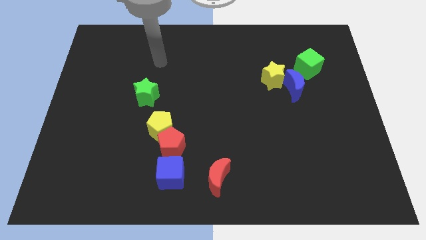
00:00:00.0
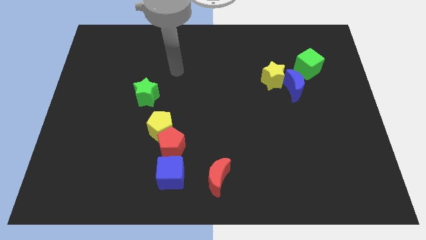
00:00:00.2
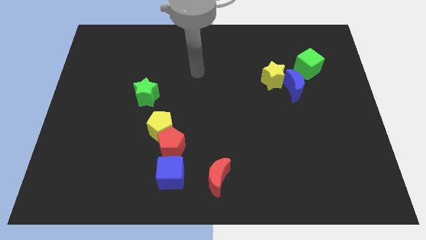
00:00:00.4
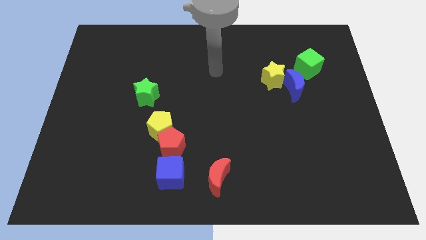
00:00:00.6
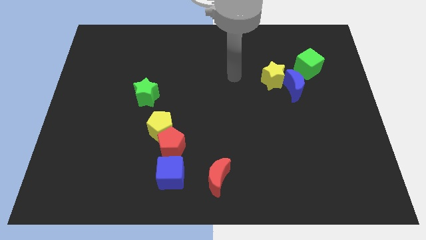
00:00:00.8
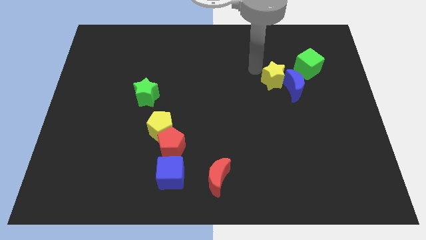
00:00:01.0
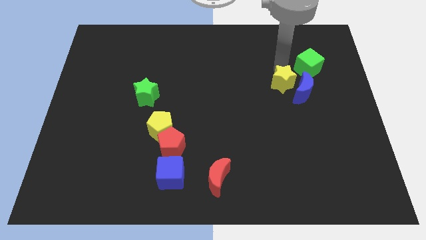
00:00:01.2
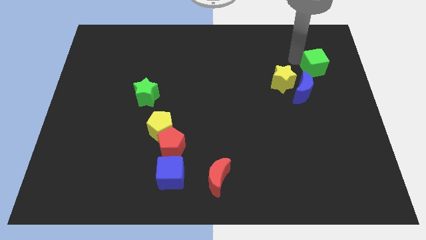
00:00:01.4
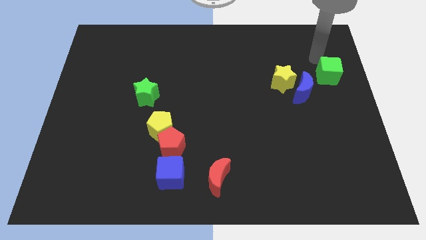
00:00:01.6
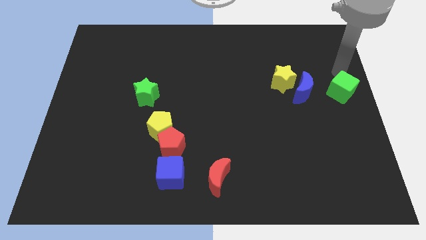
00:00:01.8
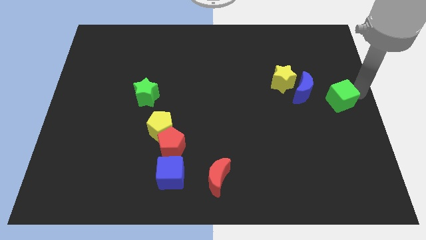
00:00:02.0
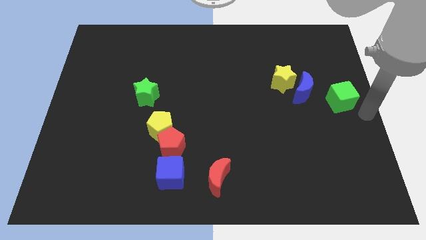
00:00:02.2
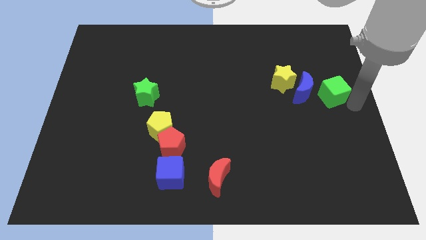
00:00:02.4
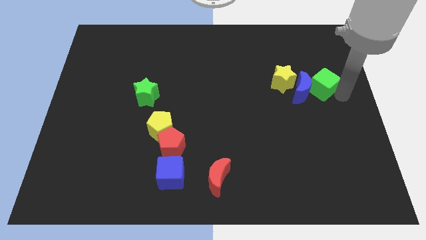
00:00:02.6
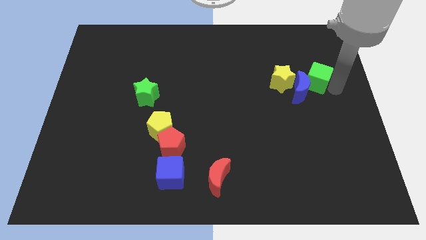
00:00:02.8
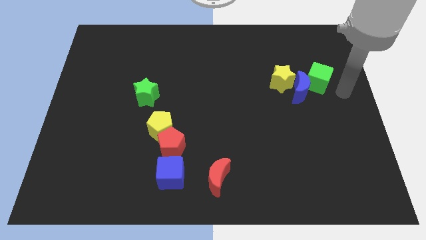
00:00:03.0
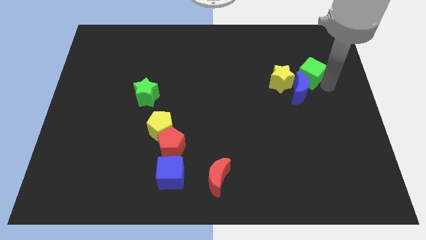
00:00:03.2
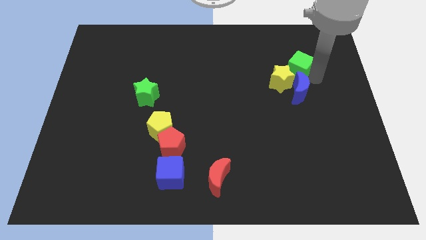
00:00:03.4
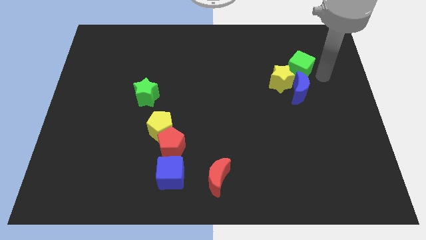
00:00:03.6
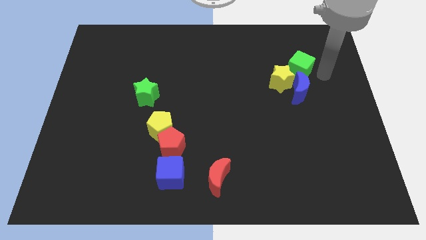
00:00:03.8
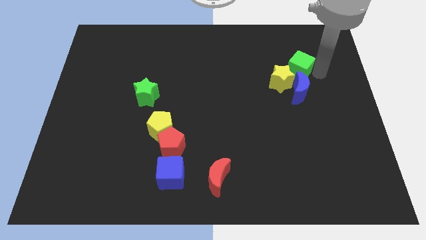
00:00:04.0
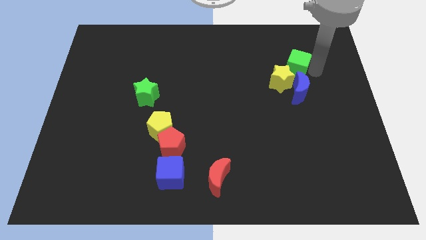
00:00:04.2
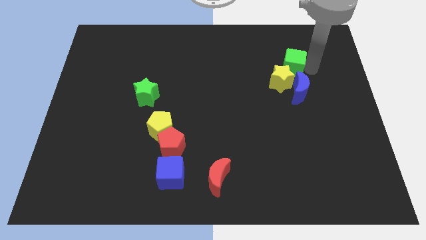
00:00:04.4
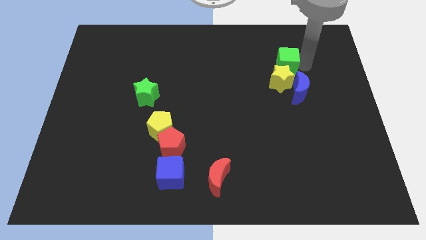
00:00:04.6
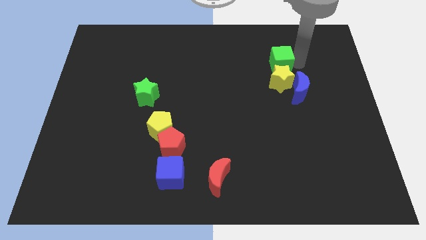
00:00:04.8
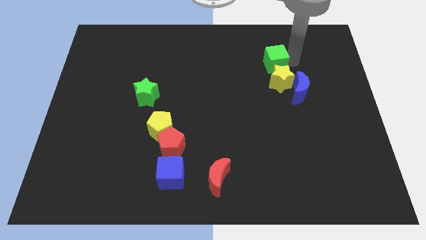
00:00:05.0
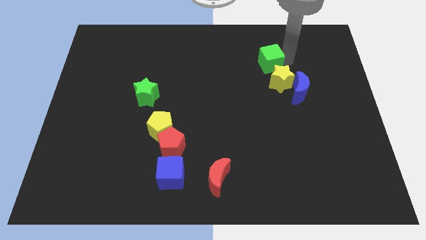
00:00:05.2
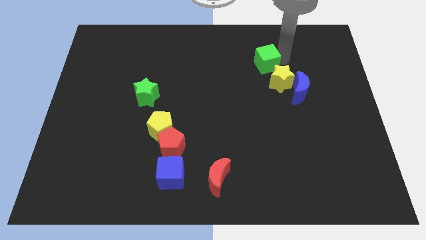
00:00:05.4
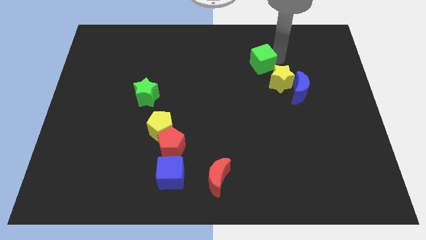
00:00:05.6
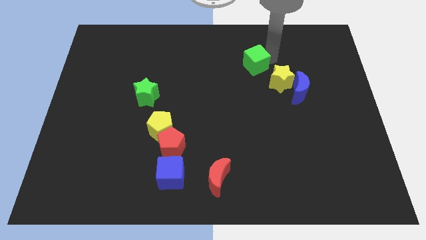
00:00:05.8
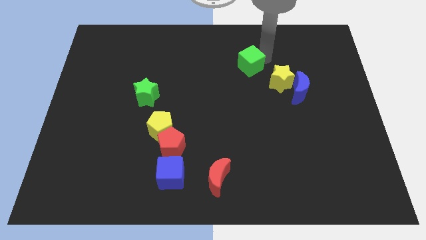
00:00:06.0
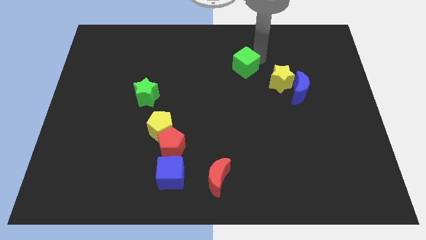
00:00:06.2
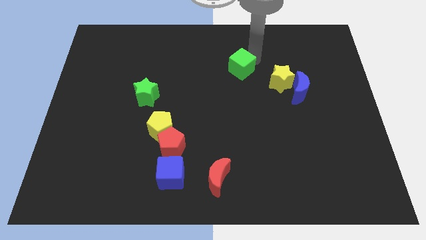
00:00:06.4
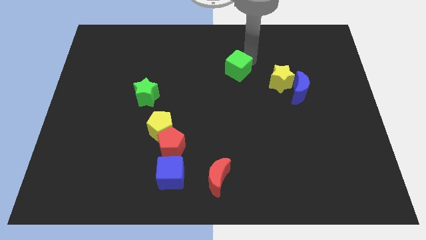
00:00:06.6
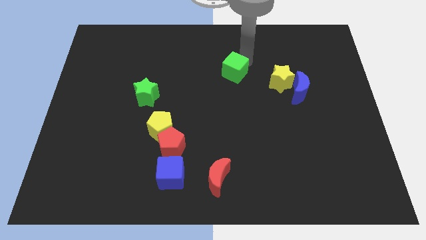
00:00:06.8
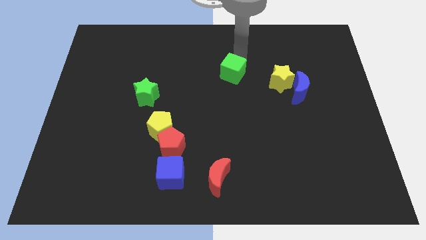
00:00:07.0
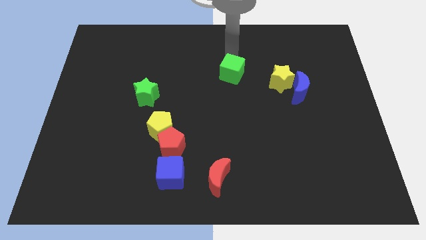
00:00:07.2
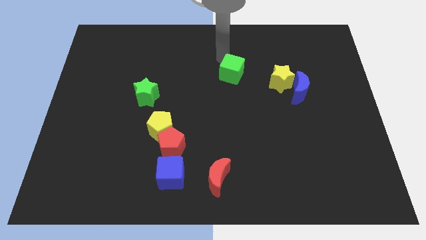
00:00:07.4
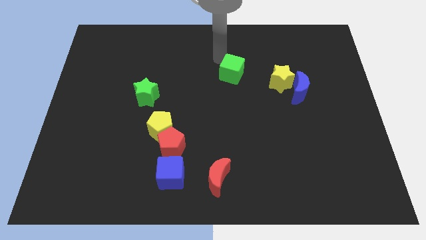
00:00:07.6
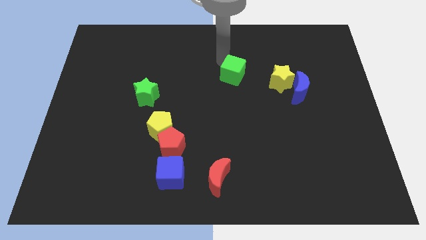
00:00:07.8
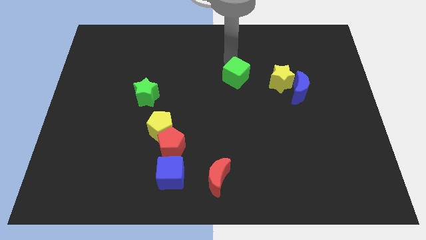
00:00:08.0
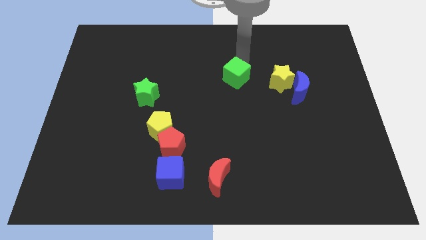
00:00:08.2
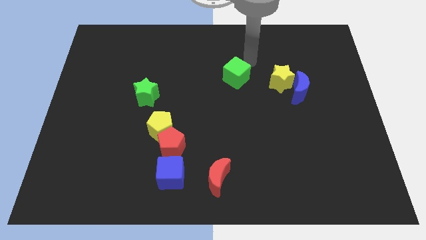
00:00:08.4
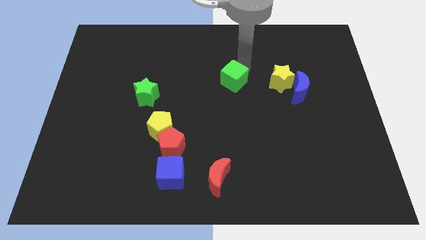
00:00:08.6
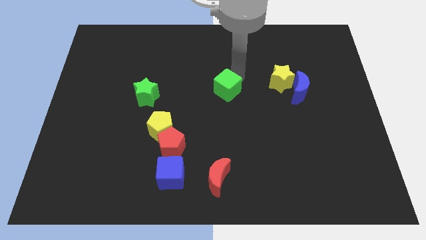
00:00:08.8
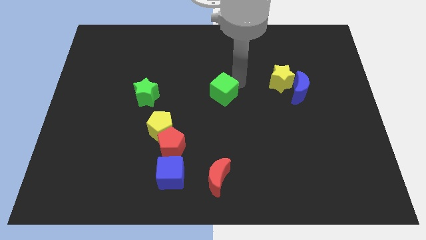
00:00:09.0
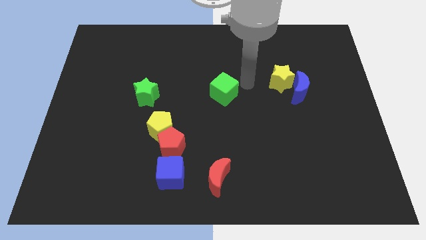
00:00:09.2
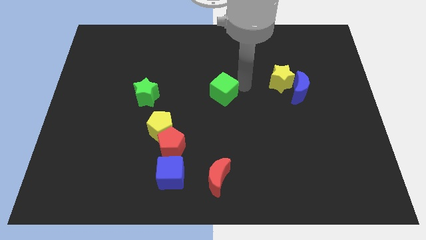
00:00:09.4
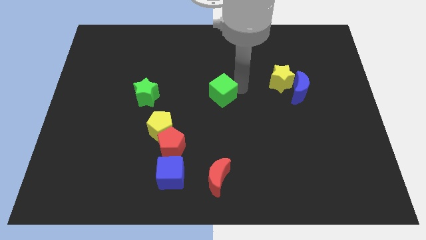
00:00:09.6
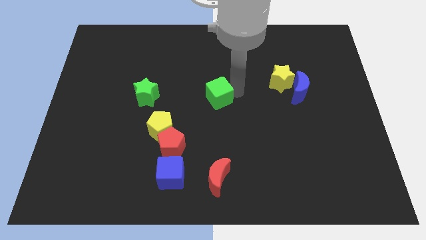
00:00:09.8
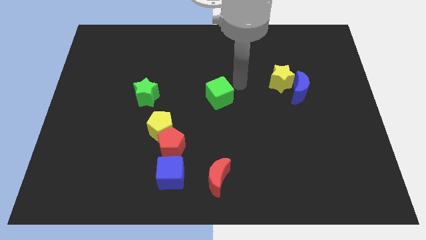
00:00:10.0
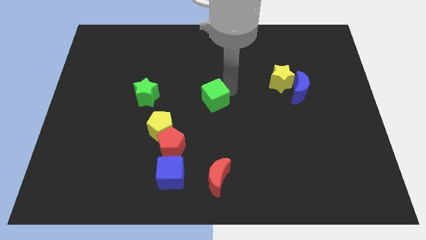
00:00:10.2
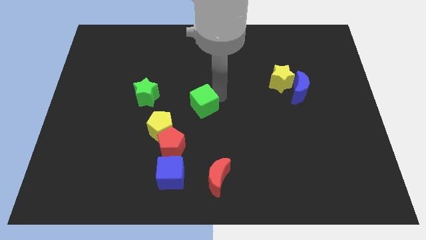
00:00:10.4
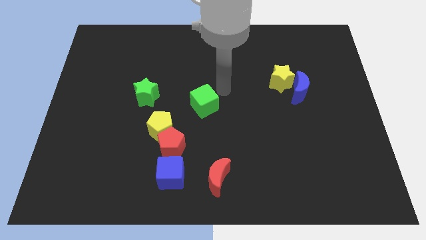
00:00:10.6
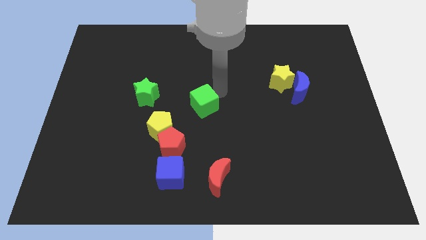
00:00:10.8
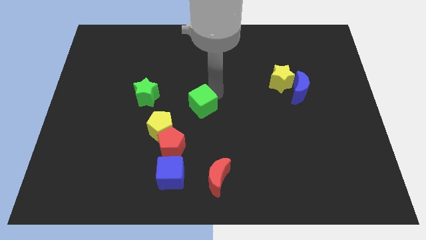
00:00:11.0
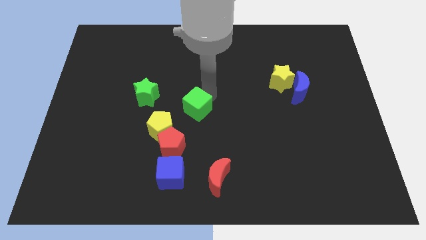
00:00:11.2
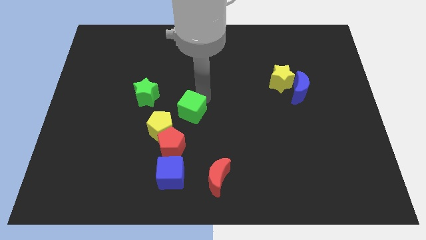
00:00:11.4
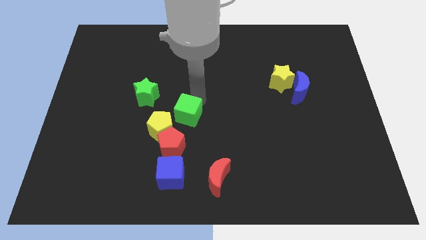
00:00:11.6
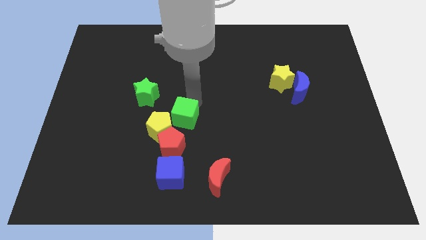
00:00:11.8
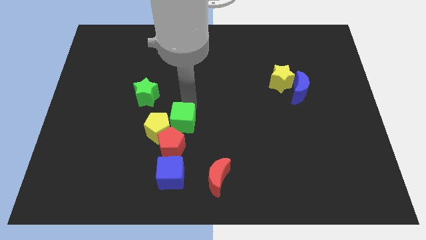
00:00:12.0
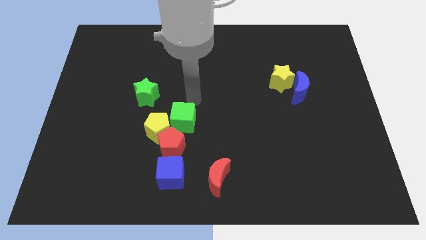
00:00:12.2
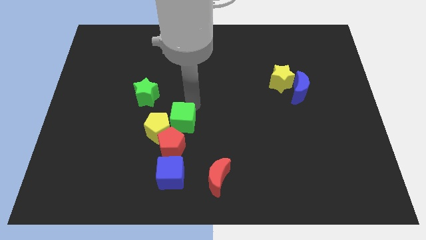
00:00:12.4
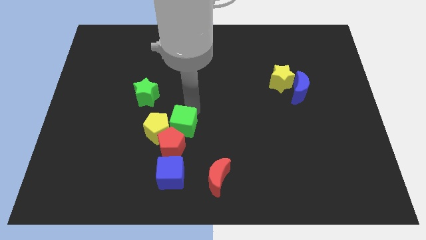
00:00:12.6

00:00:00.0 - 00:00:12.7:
move the green cube close to the red pentagon

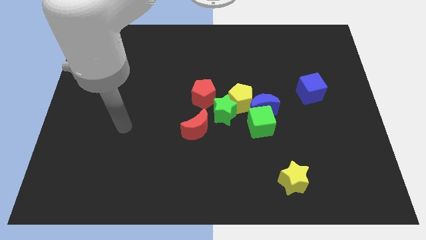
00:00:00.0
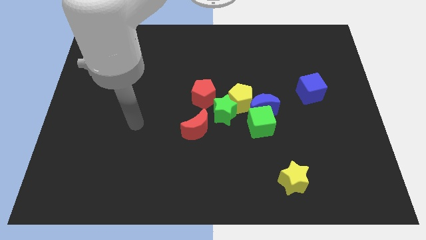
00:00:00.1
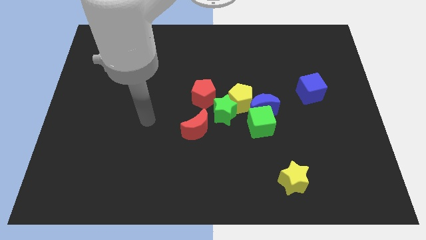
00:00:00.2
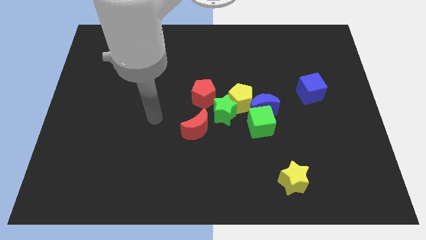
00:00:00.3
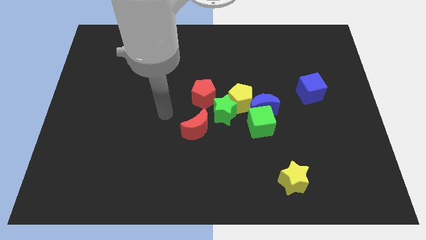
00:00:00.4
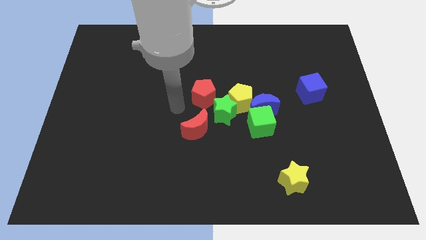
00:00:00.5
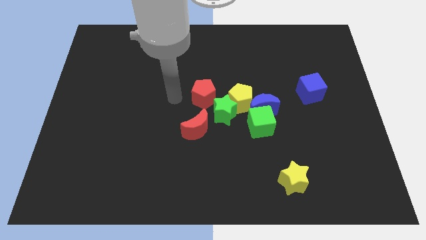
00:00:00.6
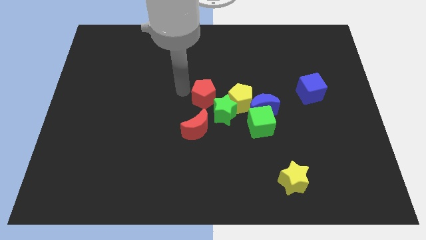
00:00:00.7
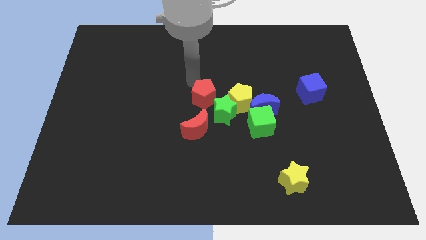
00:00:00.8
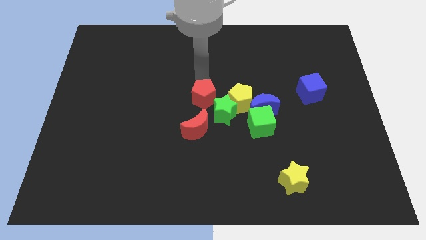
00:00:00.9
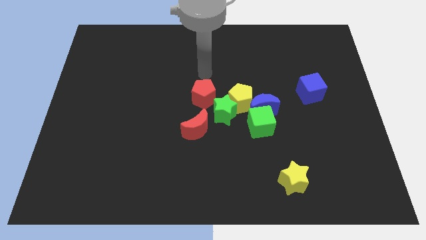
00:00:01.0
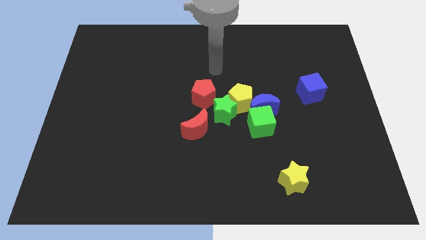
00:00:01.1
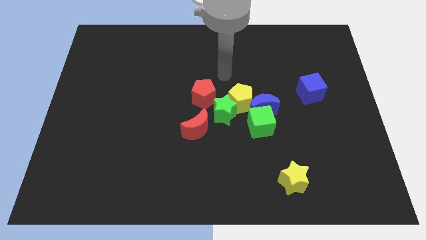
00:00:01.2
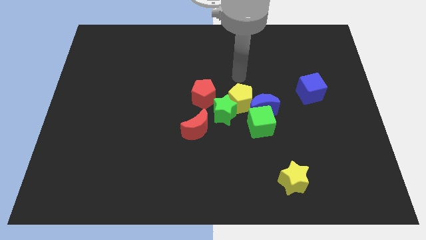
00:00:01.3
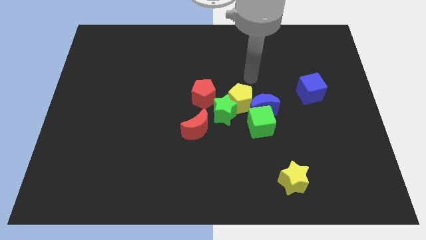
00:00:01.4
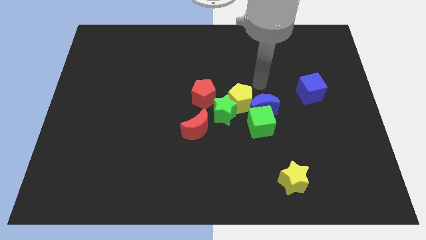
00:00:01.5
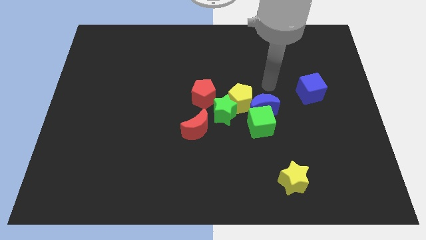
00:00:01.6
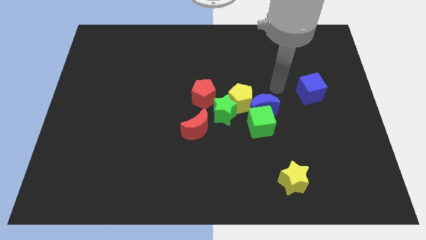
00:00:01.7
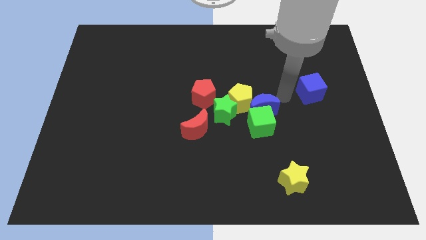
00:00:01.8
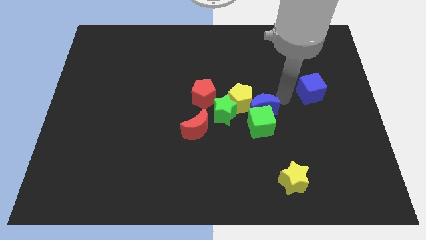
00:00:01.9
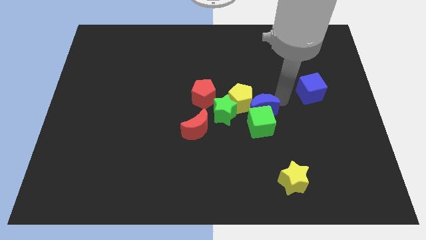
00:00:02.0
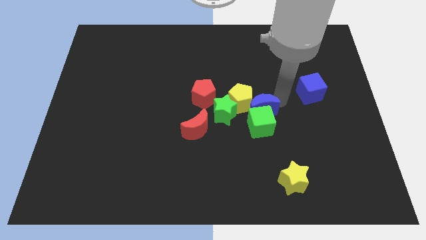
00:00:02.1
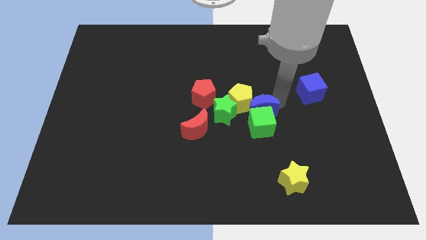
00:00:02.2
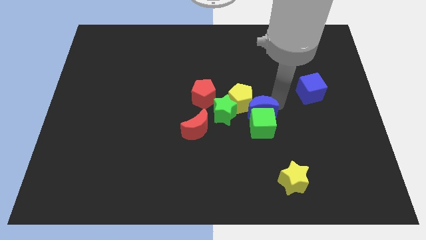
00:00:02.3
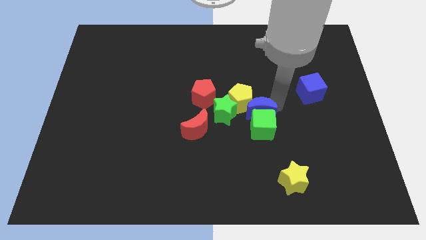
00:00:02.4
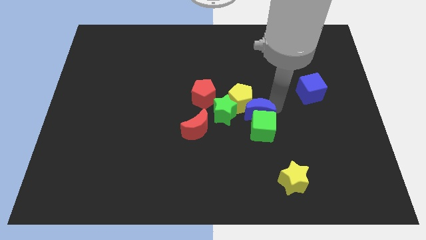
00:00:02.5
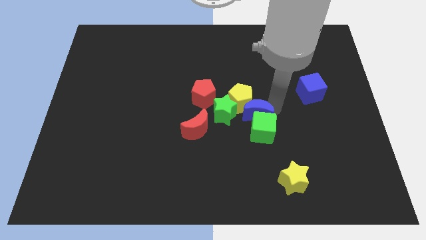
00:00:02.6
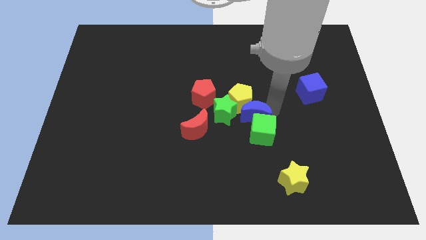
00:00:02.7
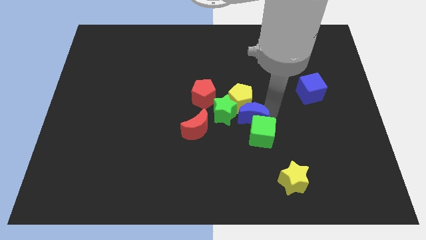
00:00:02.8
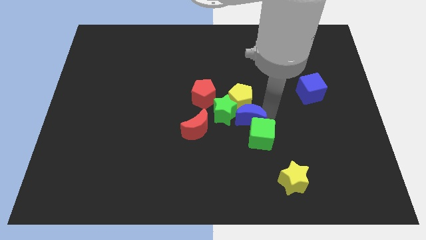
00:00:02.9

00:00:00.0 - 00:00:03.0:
push the blue moon close to the green star
